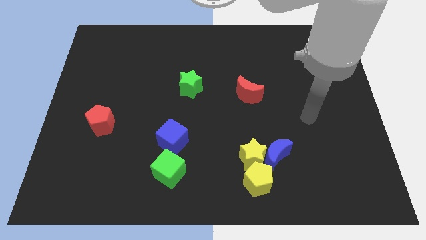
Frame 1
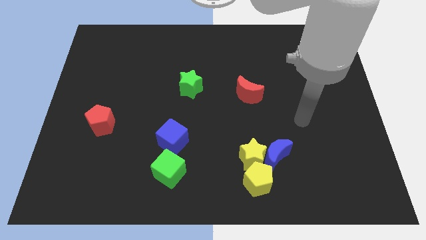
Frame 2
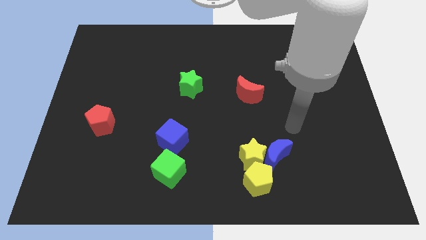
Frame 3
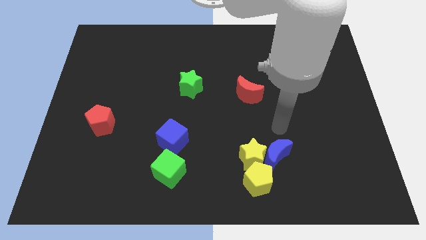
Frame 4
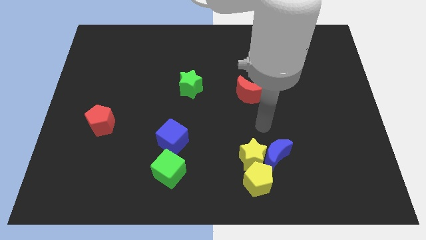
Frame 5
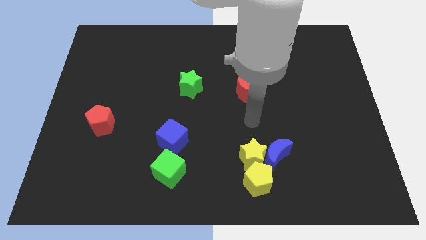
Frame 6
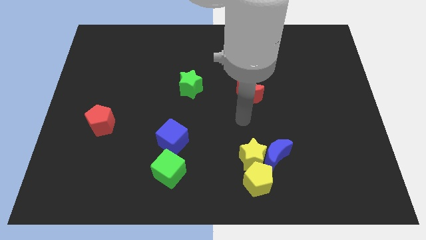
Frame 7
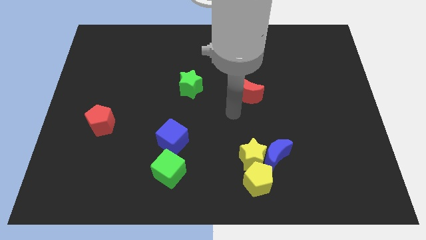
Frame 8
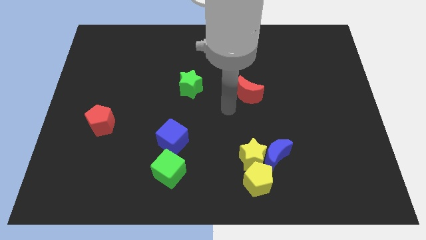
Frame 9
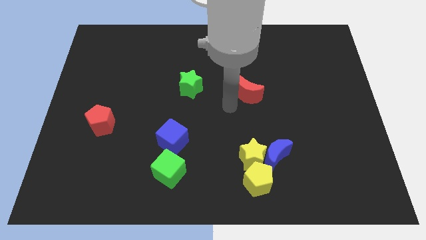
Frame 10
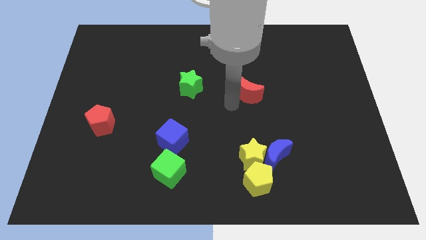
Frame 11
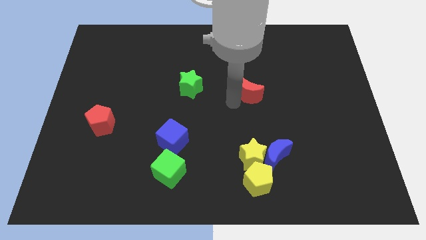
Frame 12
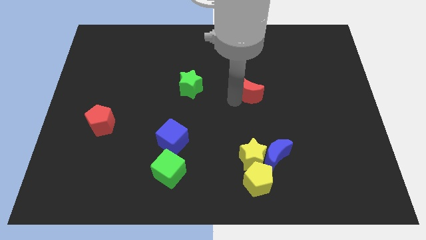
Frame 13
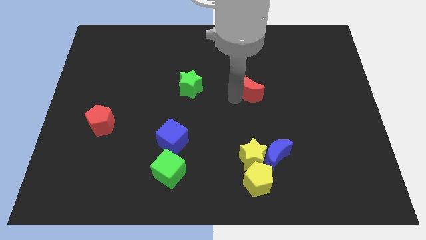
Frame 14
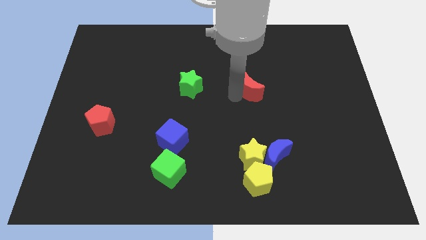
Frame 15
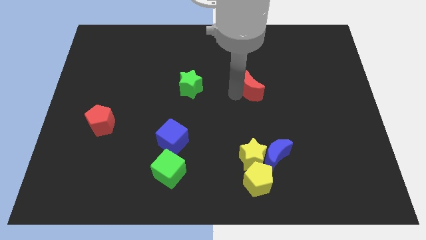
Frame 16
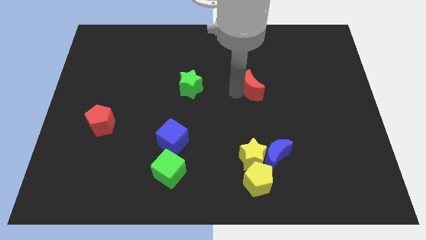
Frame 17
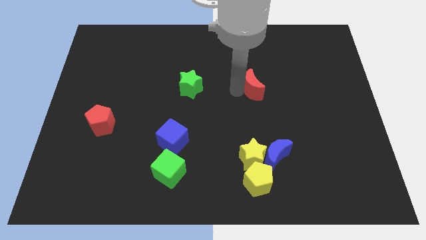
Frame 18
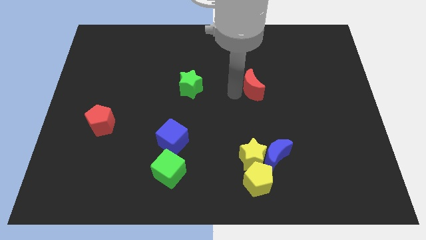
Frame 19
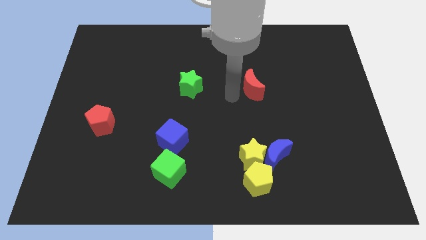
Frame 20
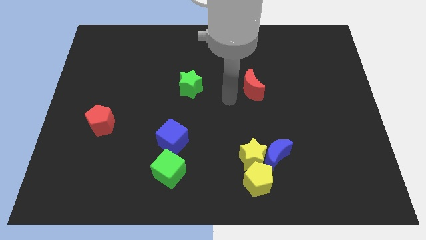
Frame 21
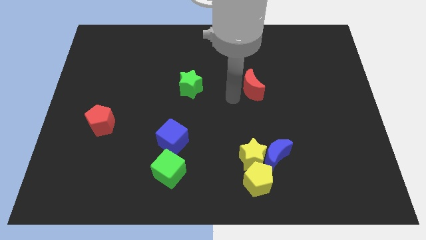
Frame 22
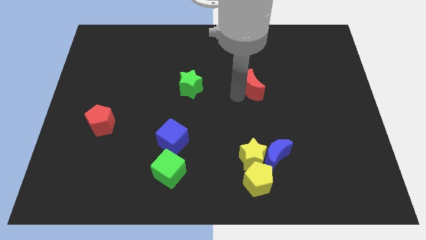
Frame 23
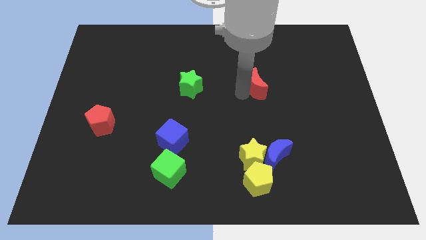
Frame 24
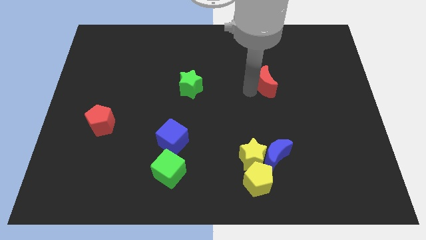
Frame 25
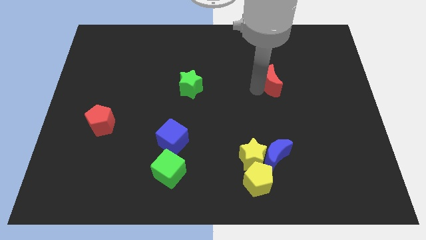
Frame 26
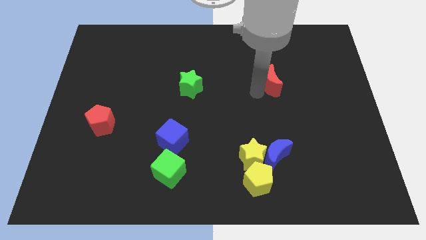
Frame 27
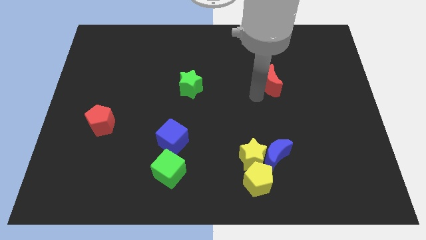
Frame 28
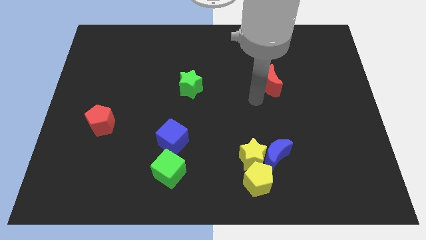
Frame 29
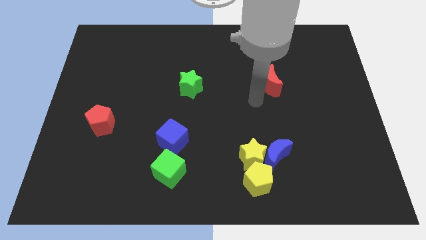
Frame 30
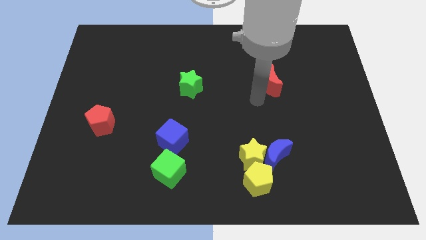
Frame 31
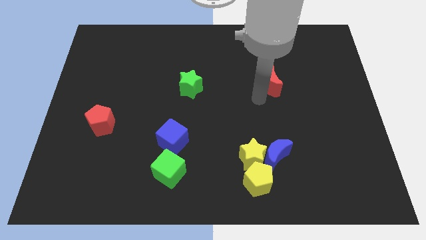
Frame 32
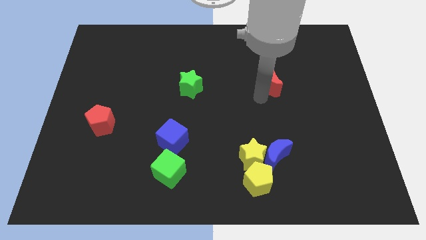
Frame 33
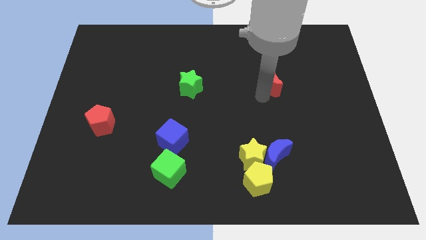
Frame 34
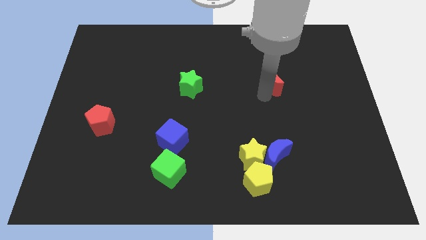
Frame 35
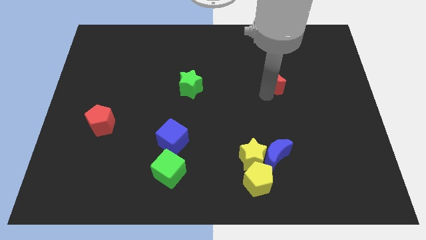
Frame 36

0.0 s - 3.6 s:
move the red moon upwards and to the right a little

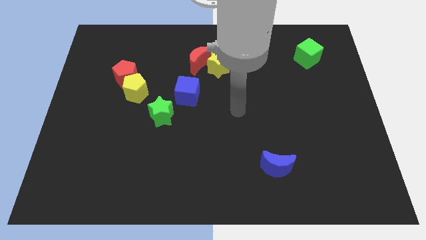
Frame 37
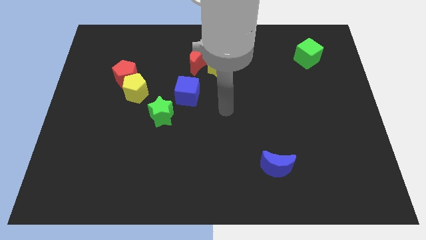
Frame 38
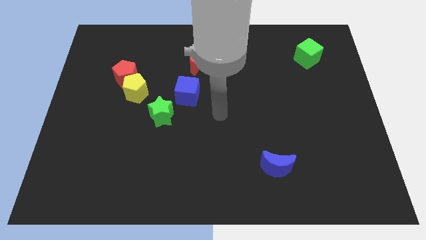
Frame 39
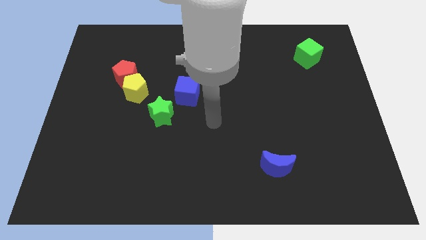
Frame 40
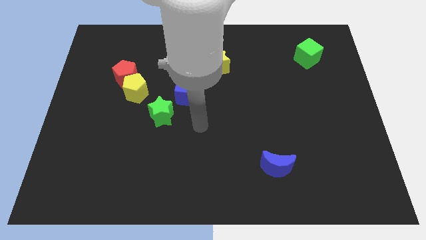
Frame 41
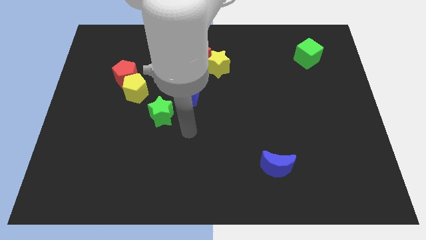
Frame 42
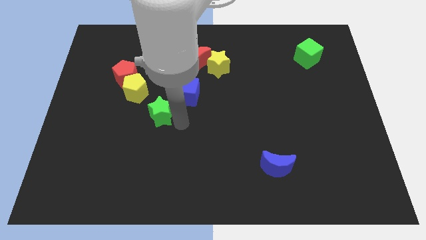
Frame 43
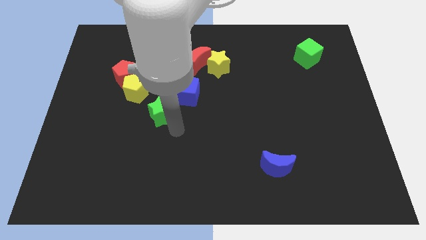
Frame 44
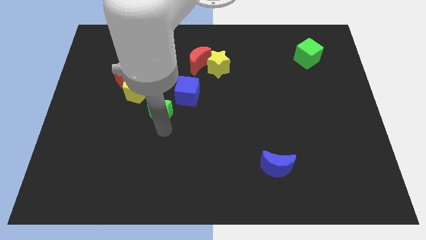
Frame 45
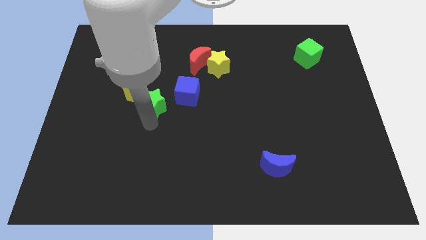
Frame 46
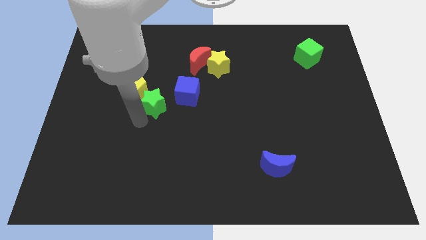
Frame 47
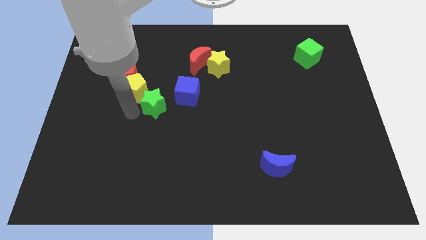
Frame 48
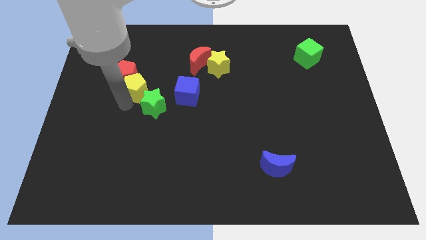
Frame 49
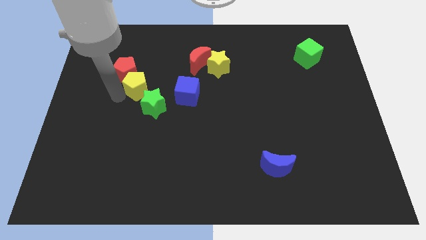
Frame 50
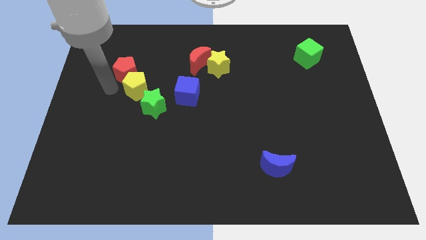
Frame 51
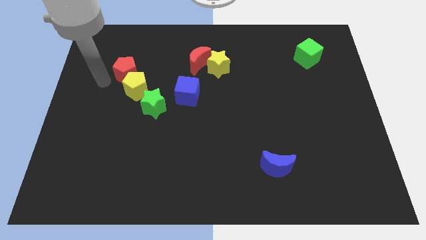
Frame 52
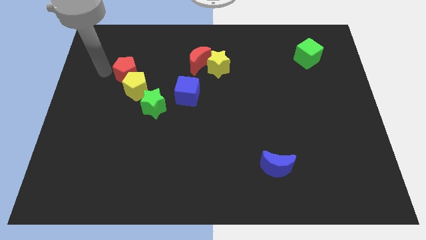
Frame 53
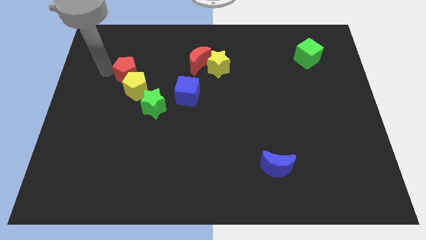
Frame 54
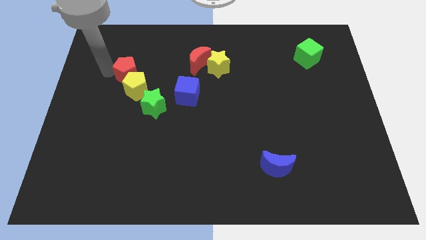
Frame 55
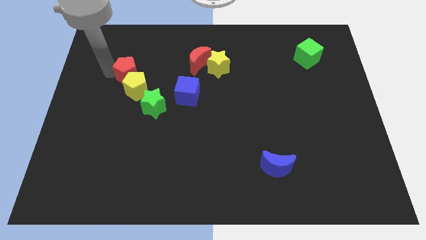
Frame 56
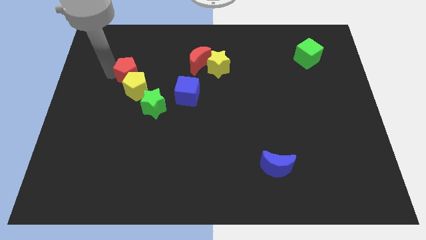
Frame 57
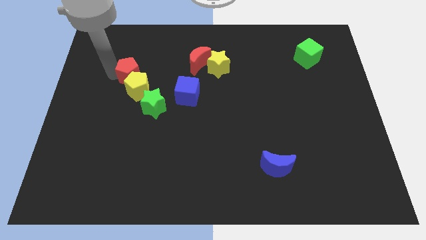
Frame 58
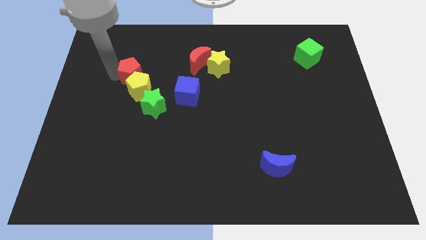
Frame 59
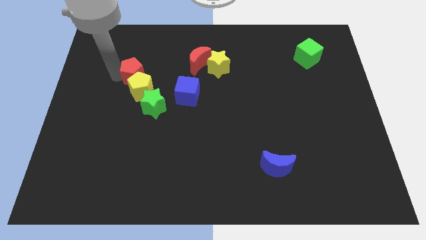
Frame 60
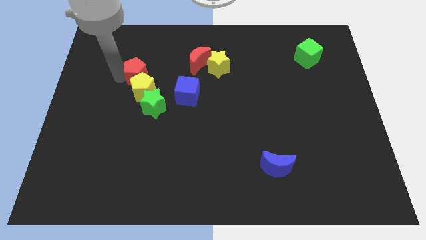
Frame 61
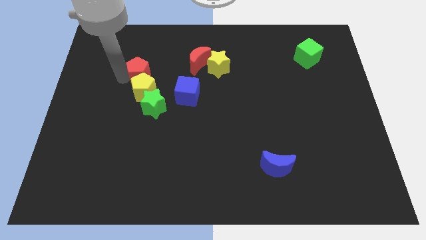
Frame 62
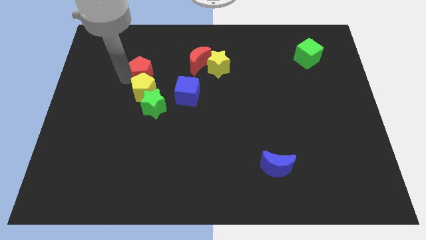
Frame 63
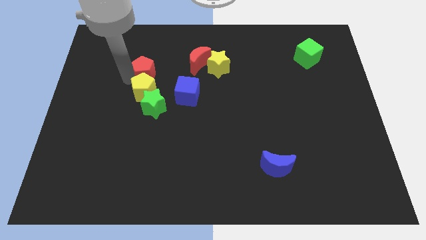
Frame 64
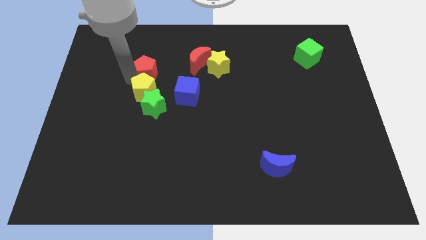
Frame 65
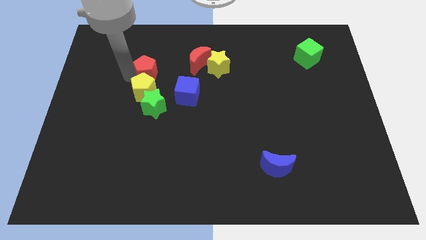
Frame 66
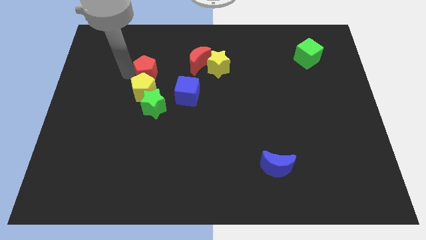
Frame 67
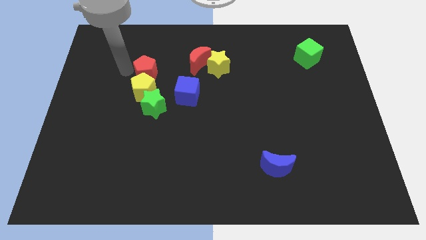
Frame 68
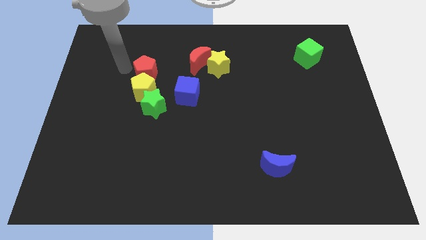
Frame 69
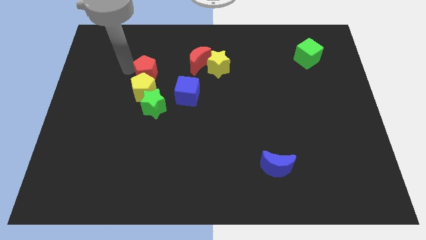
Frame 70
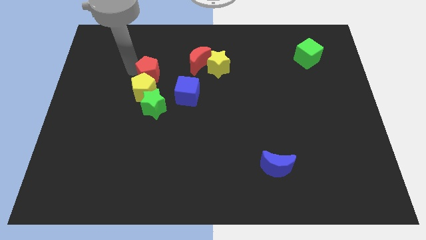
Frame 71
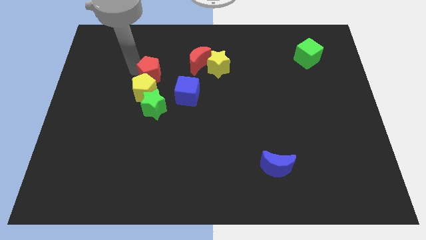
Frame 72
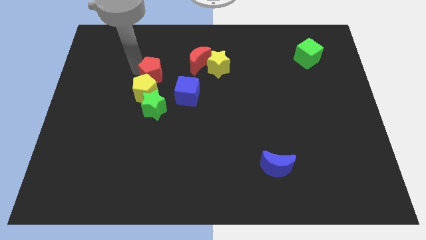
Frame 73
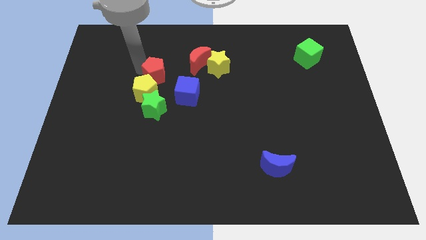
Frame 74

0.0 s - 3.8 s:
push the red pentagon right a little

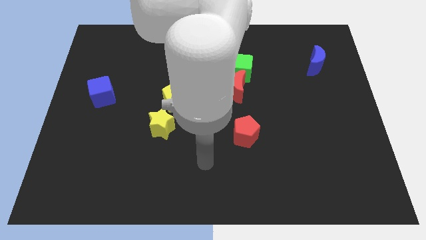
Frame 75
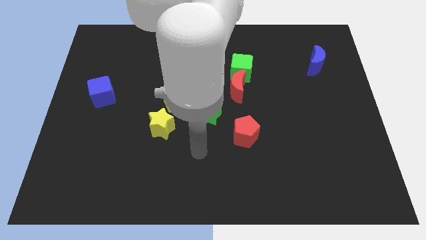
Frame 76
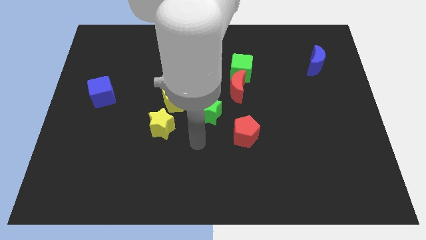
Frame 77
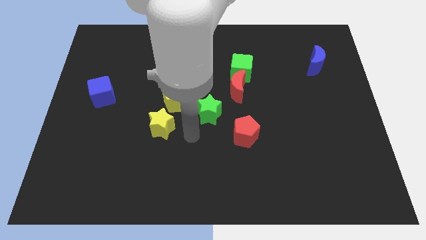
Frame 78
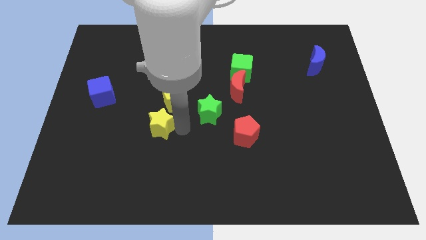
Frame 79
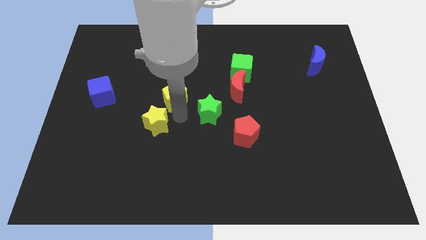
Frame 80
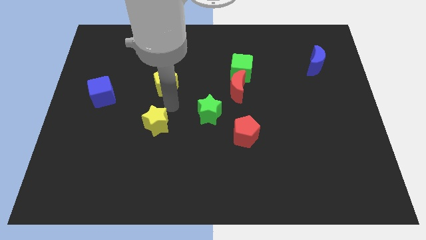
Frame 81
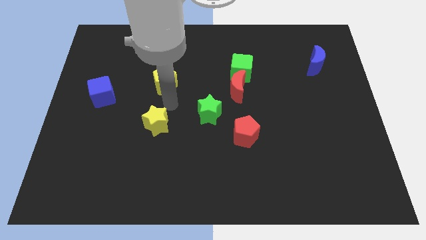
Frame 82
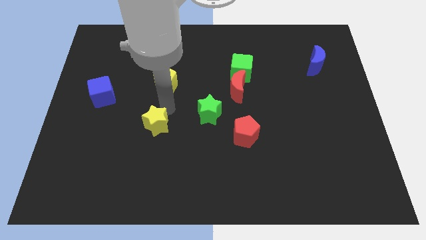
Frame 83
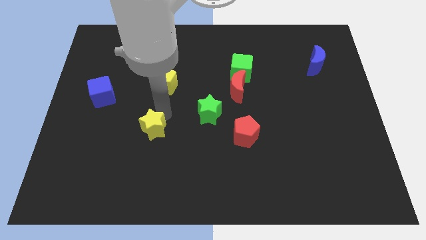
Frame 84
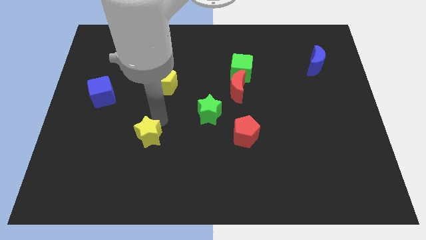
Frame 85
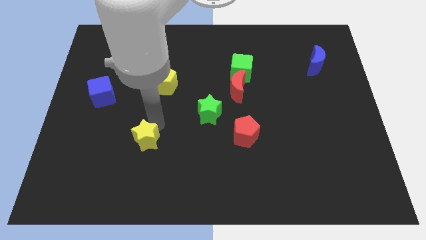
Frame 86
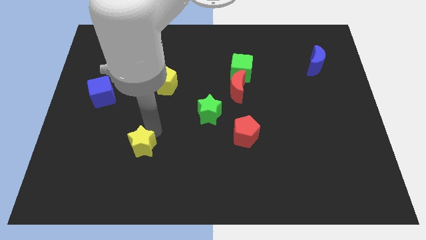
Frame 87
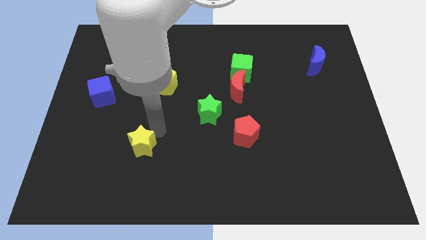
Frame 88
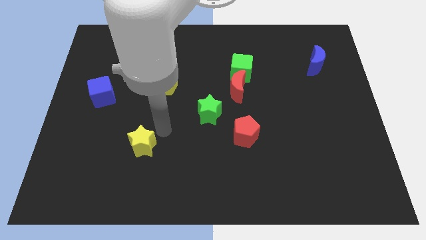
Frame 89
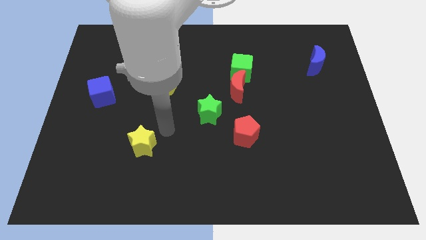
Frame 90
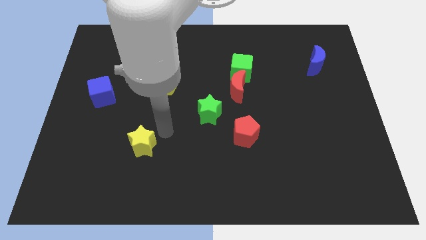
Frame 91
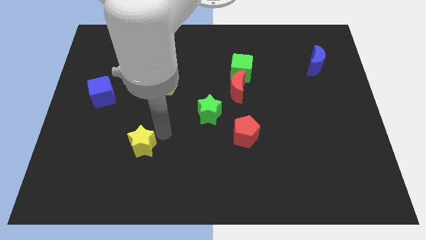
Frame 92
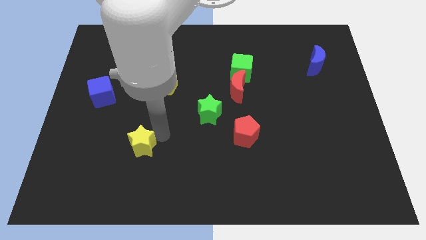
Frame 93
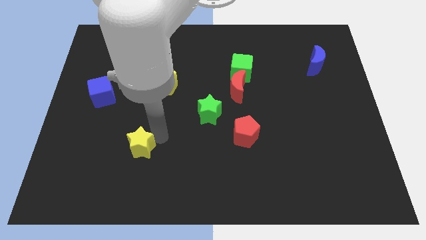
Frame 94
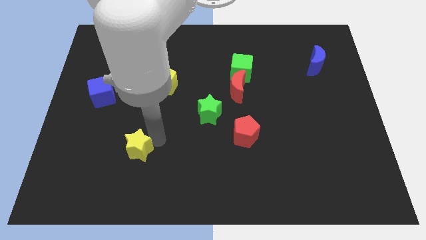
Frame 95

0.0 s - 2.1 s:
push the yellow star down and to the left diagonally slightly
